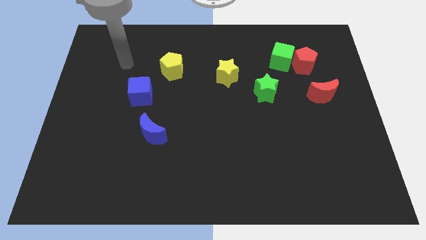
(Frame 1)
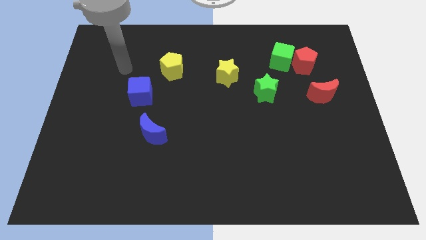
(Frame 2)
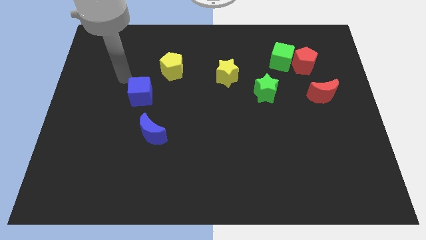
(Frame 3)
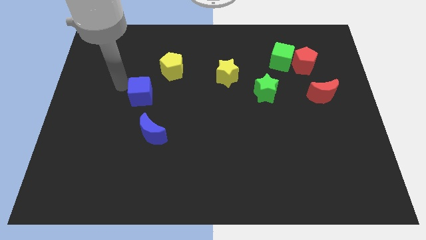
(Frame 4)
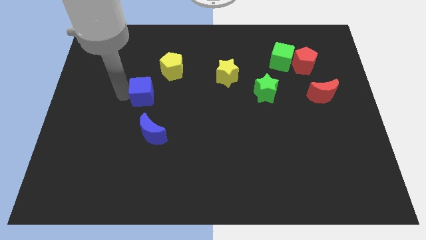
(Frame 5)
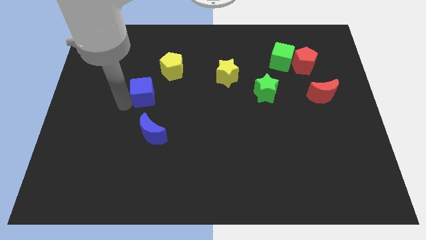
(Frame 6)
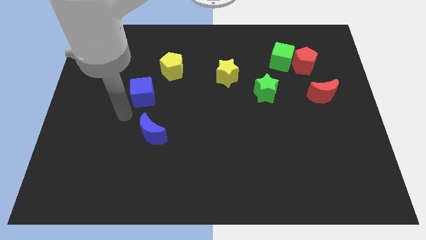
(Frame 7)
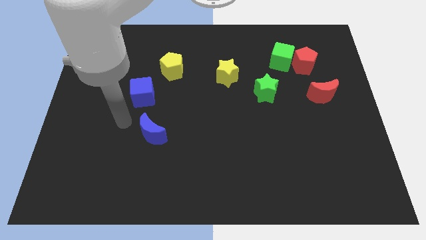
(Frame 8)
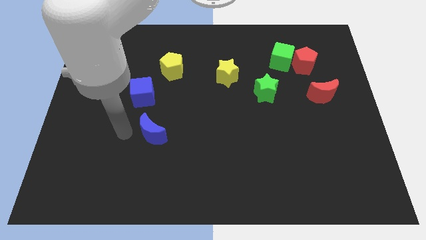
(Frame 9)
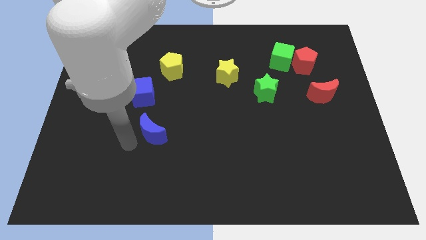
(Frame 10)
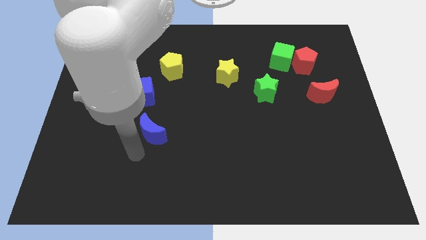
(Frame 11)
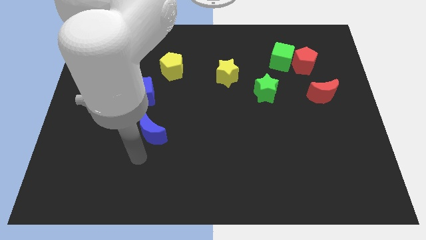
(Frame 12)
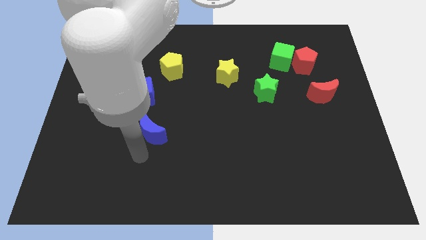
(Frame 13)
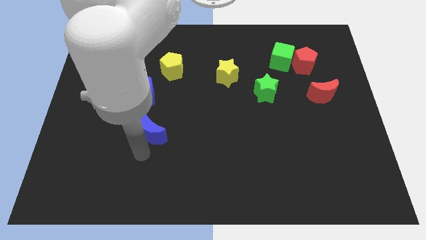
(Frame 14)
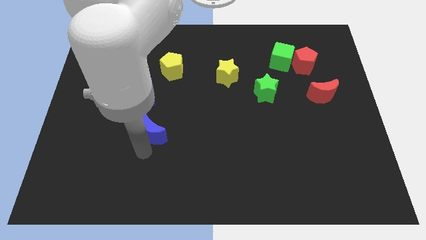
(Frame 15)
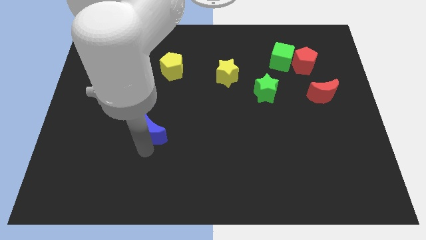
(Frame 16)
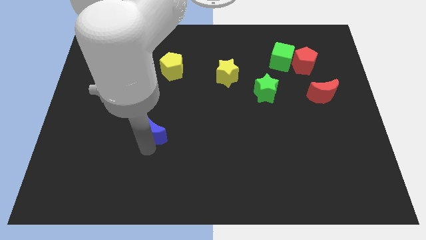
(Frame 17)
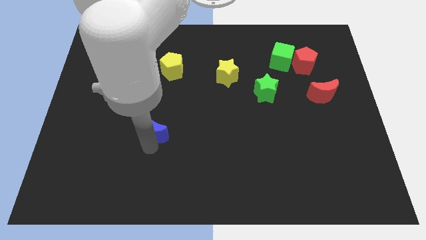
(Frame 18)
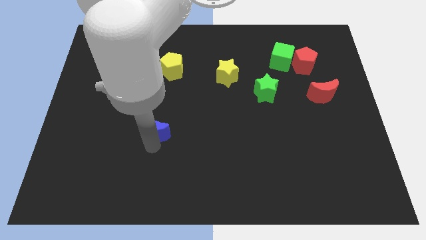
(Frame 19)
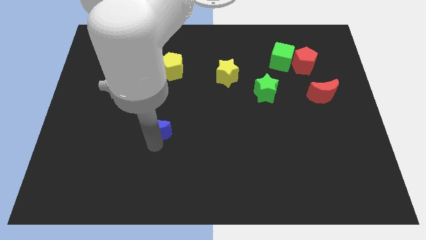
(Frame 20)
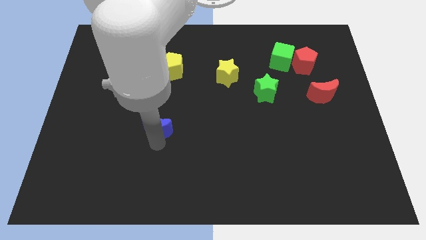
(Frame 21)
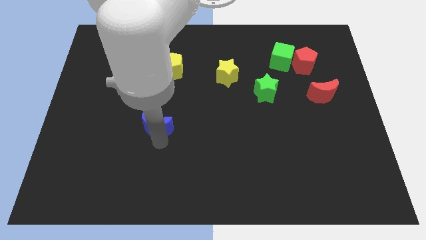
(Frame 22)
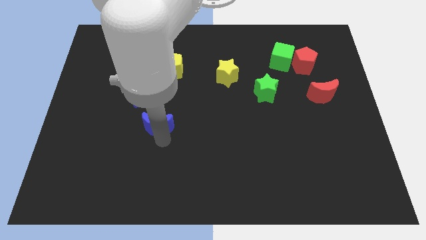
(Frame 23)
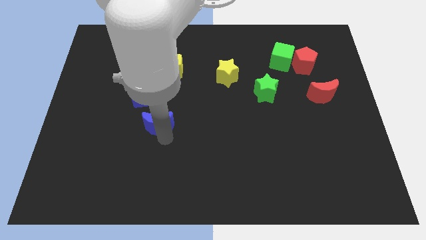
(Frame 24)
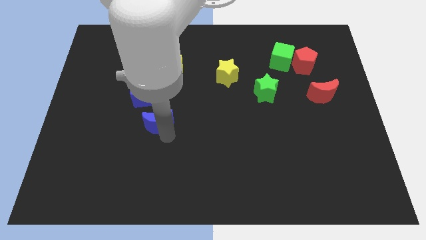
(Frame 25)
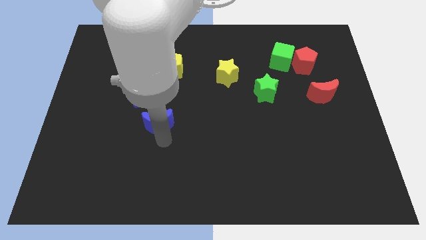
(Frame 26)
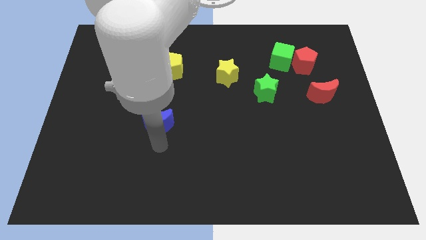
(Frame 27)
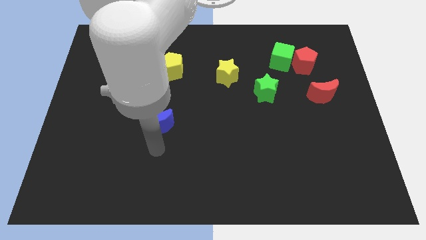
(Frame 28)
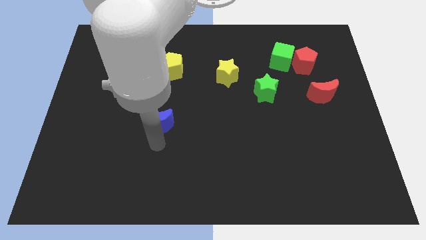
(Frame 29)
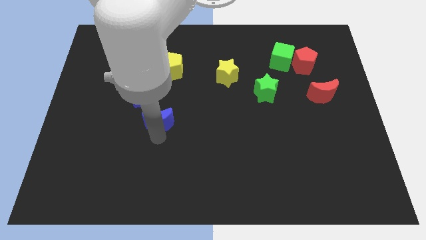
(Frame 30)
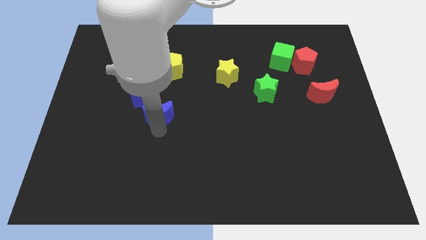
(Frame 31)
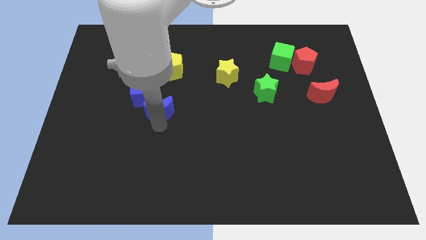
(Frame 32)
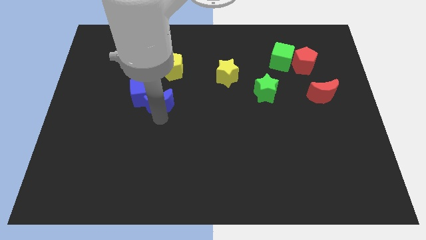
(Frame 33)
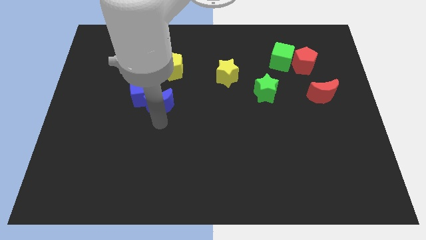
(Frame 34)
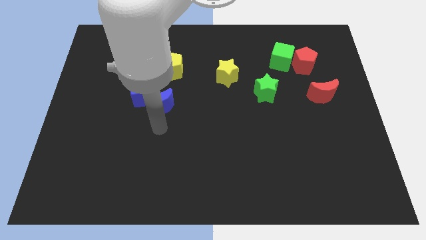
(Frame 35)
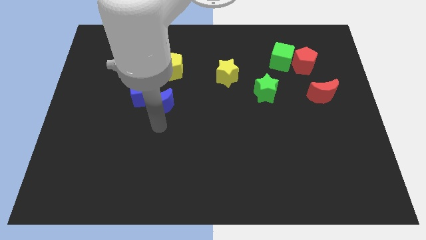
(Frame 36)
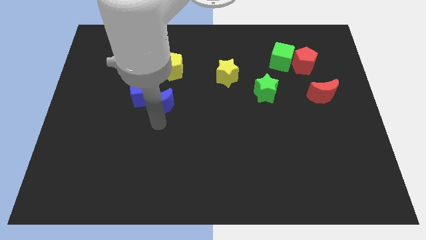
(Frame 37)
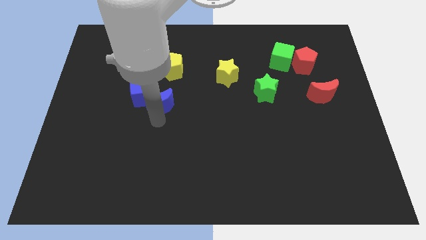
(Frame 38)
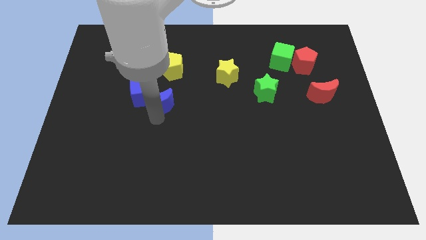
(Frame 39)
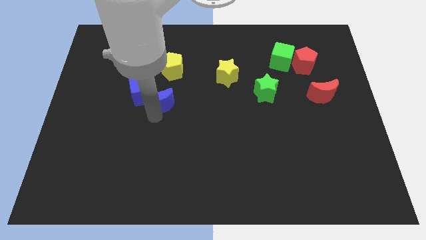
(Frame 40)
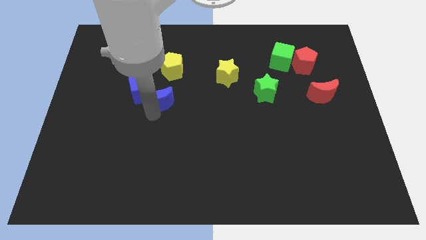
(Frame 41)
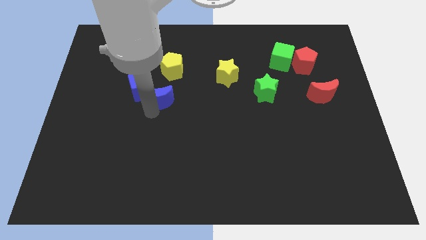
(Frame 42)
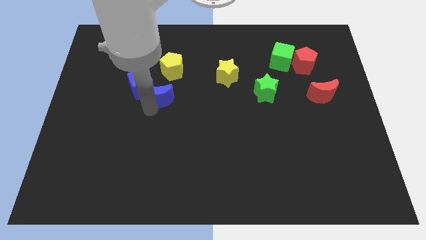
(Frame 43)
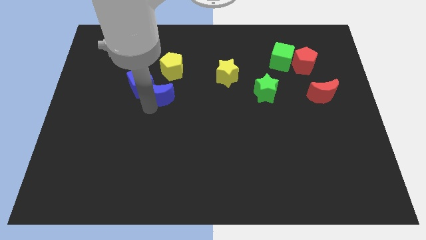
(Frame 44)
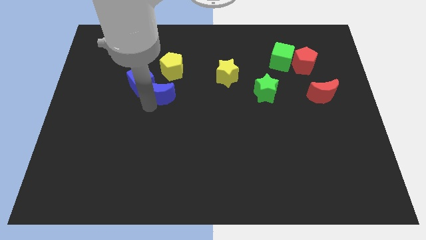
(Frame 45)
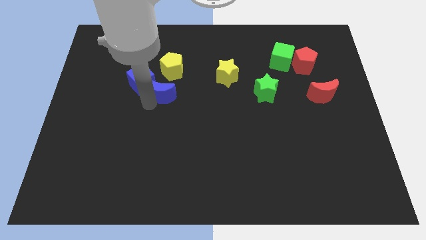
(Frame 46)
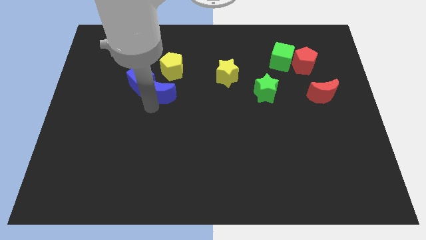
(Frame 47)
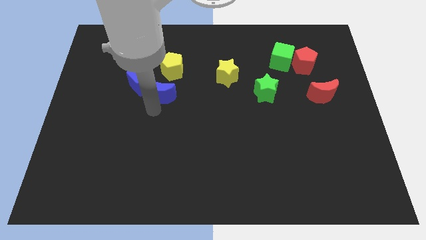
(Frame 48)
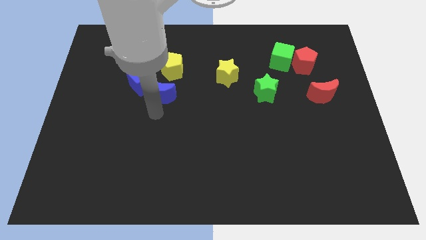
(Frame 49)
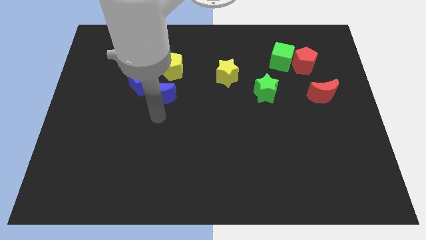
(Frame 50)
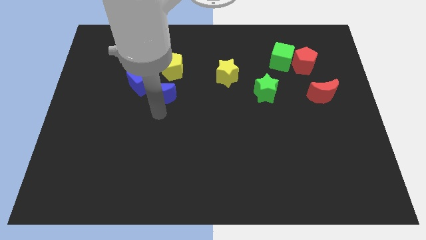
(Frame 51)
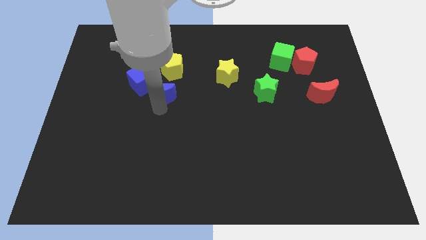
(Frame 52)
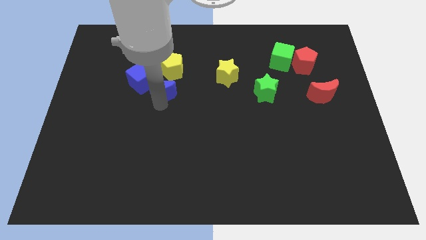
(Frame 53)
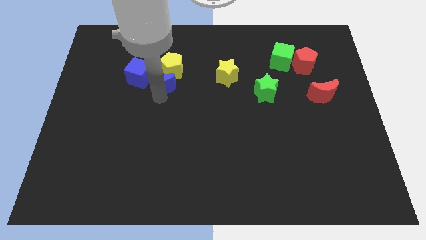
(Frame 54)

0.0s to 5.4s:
slide the blue moon towards the yellow pentagon

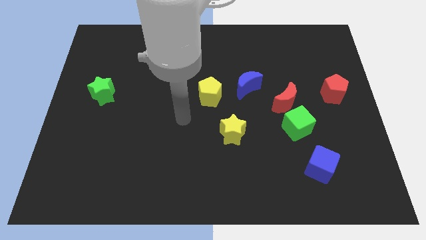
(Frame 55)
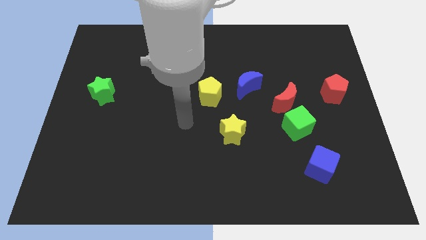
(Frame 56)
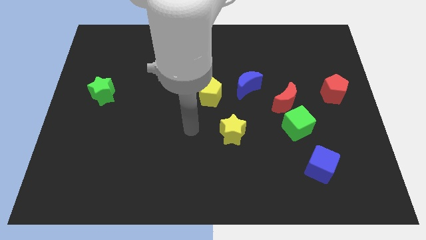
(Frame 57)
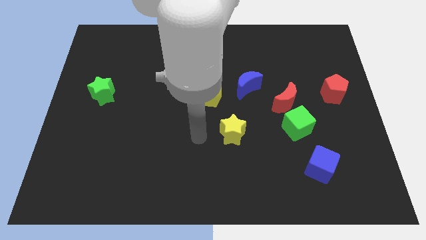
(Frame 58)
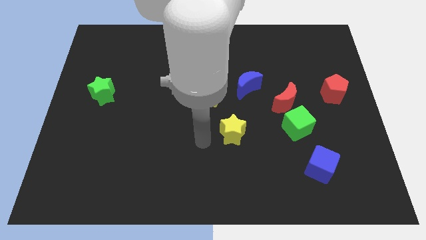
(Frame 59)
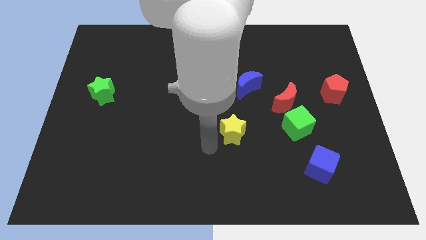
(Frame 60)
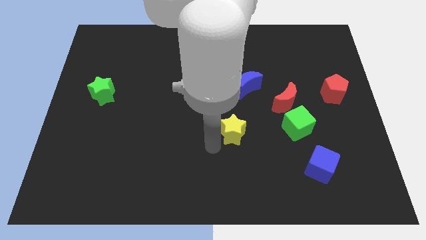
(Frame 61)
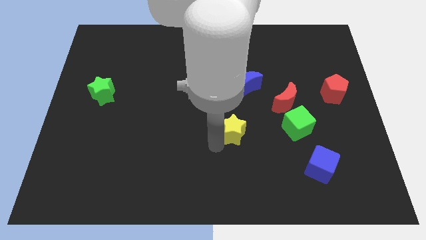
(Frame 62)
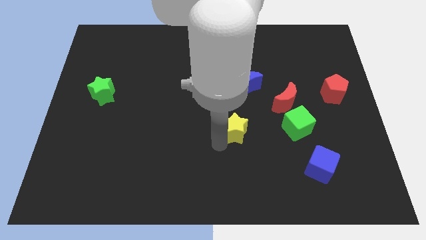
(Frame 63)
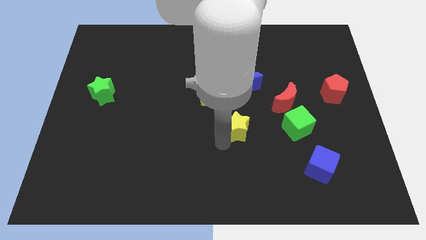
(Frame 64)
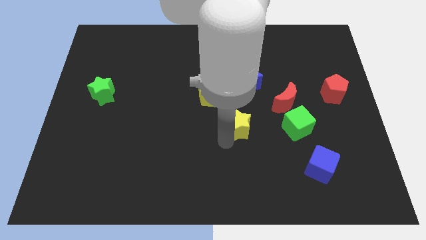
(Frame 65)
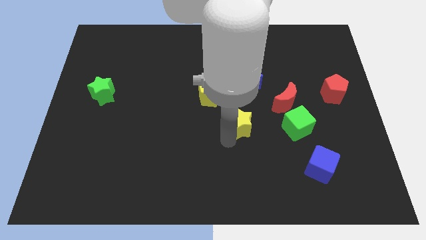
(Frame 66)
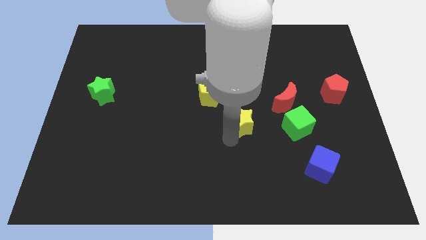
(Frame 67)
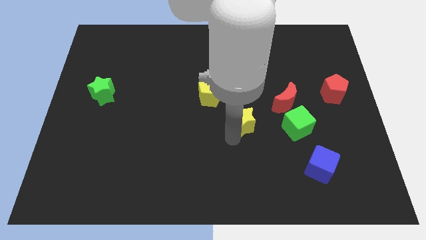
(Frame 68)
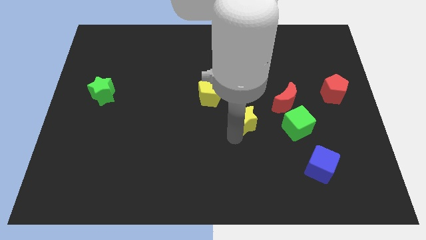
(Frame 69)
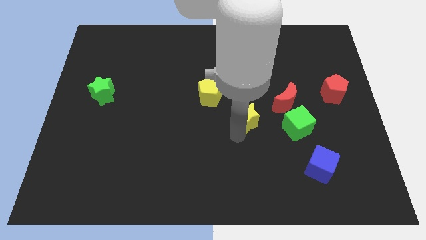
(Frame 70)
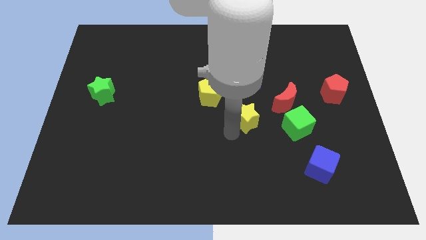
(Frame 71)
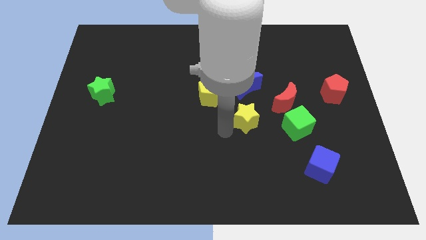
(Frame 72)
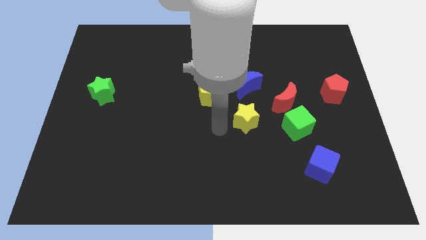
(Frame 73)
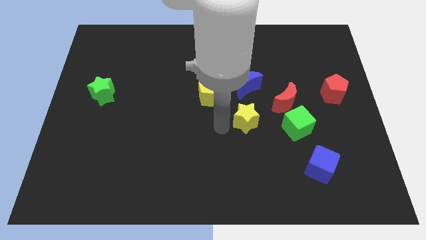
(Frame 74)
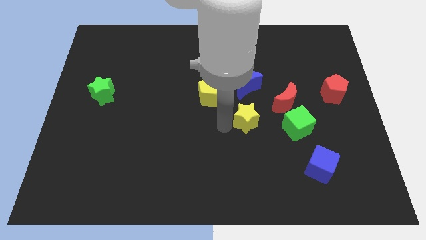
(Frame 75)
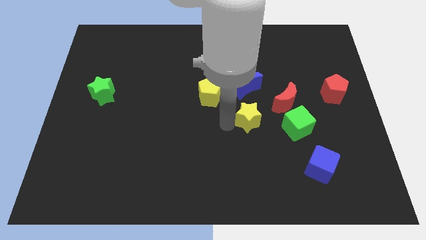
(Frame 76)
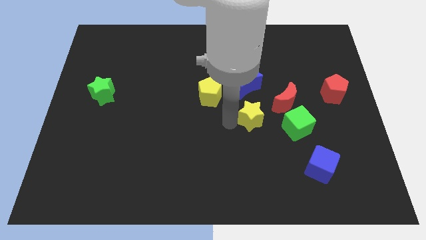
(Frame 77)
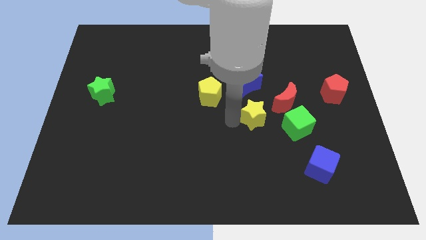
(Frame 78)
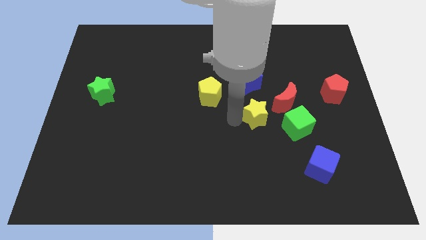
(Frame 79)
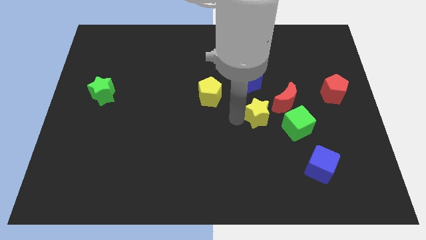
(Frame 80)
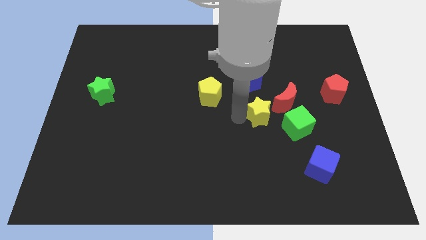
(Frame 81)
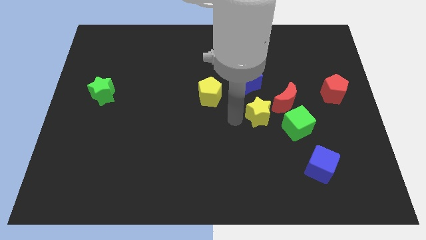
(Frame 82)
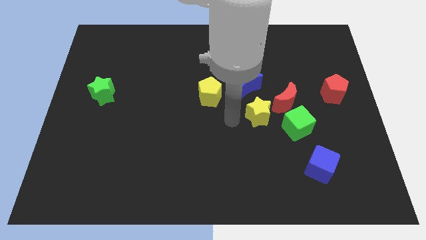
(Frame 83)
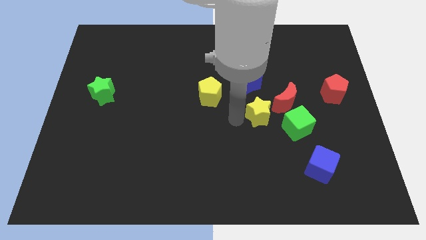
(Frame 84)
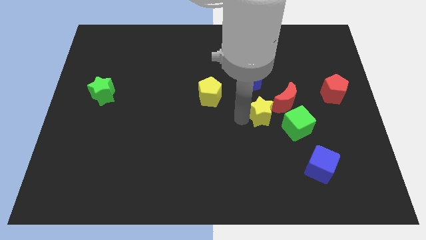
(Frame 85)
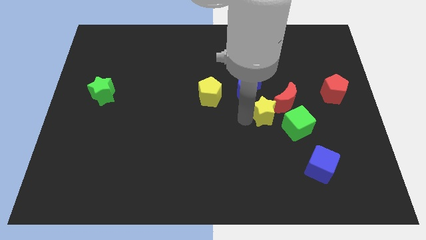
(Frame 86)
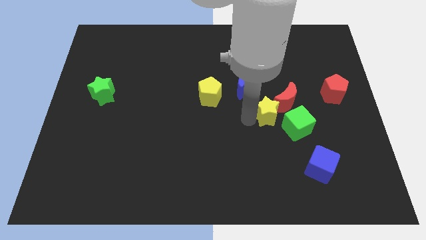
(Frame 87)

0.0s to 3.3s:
put the yellow star towards the red moon
